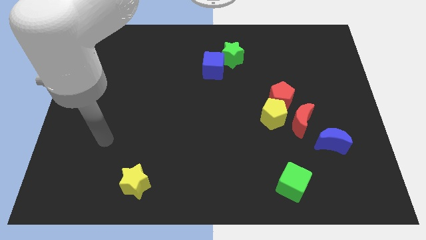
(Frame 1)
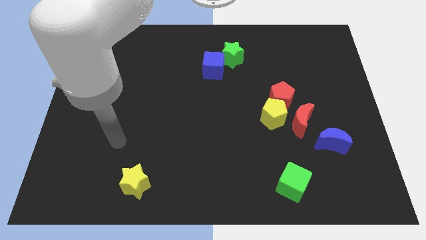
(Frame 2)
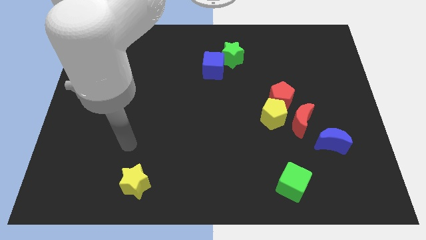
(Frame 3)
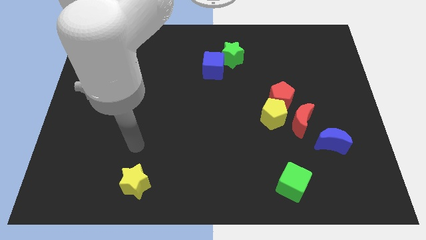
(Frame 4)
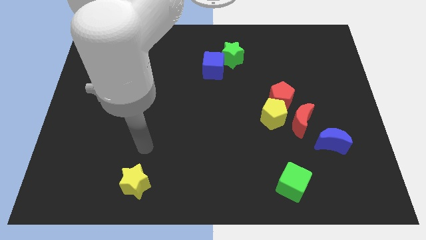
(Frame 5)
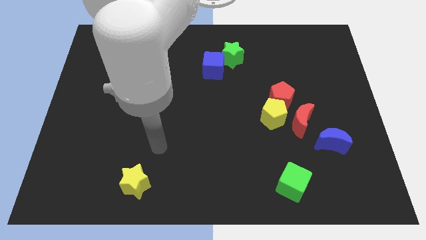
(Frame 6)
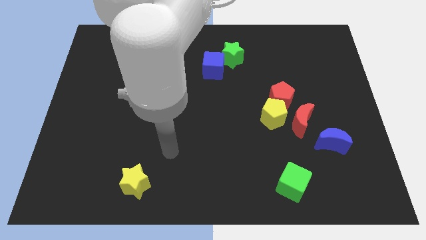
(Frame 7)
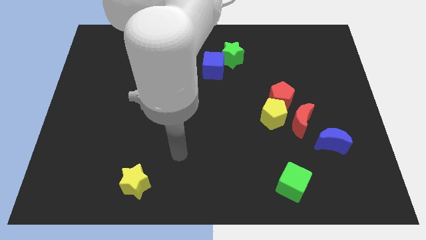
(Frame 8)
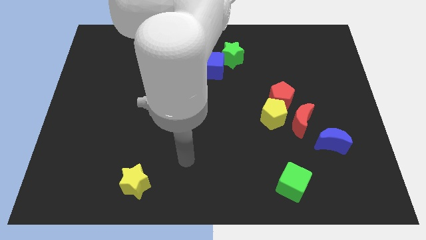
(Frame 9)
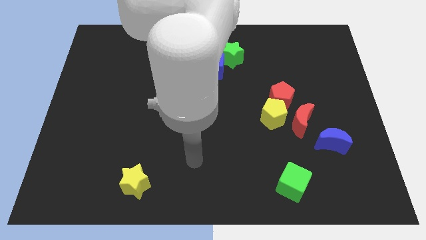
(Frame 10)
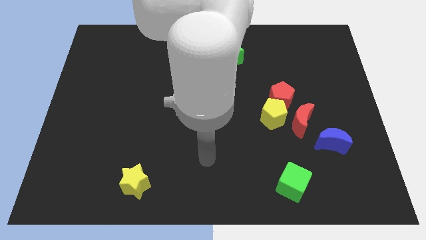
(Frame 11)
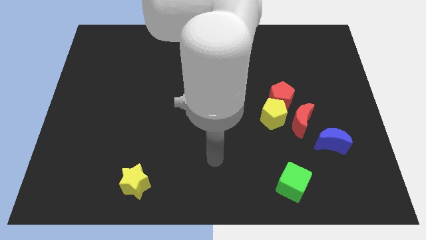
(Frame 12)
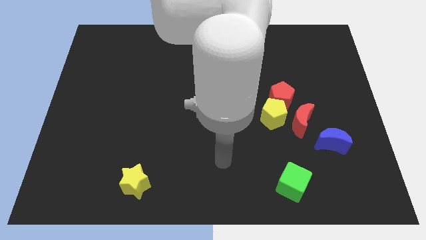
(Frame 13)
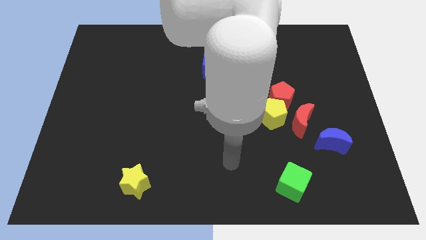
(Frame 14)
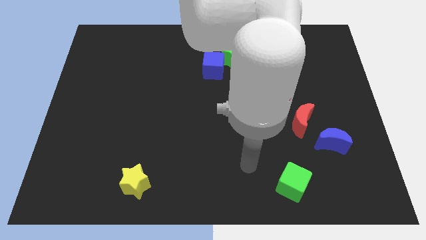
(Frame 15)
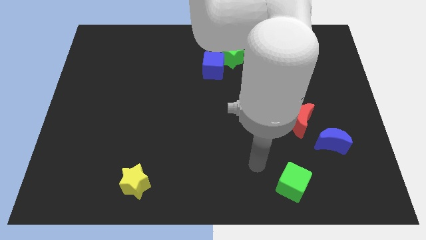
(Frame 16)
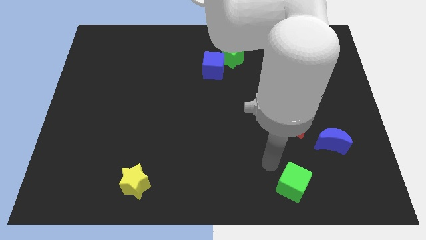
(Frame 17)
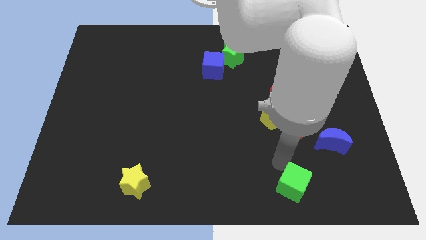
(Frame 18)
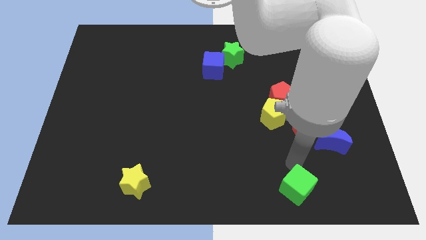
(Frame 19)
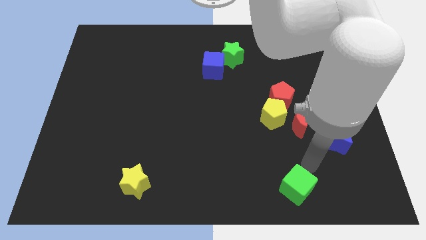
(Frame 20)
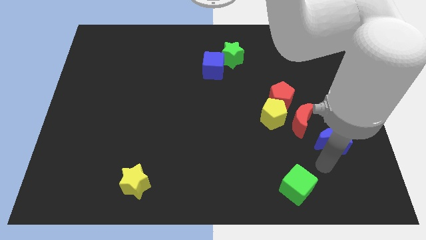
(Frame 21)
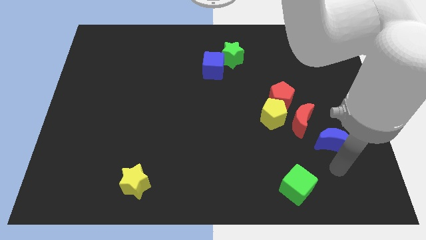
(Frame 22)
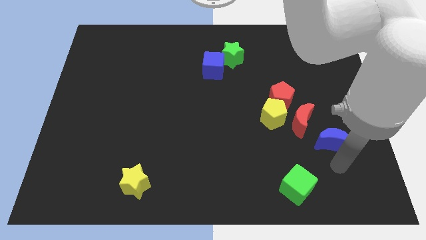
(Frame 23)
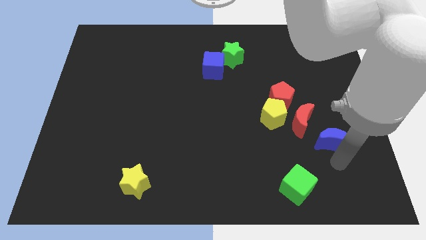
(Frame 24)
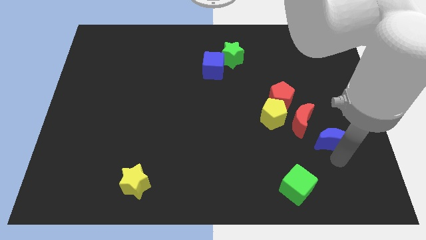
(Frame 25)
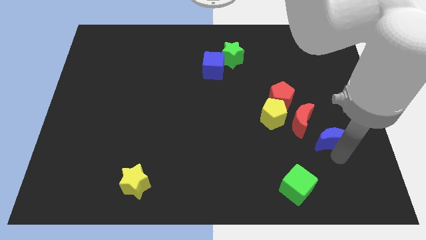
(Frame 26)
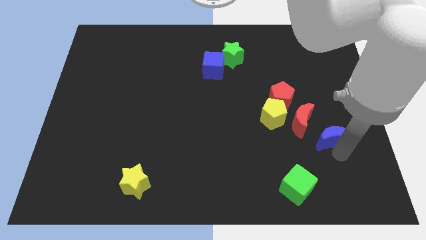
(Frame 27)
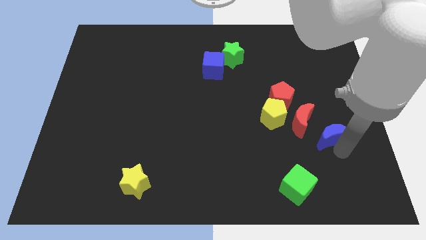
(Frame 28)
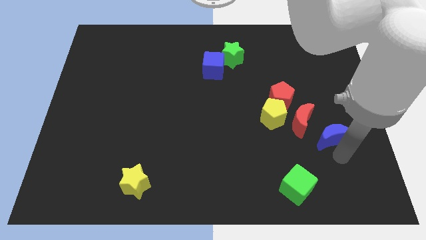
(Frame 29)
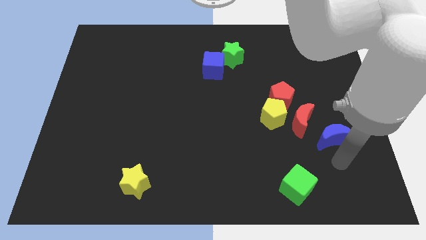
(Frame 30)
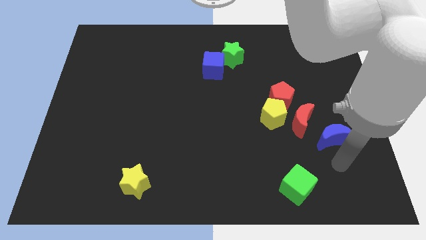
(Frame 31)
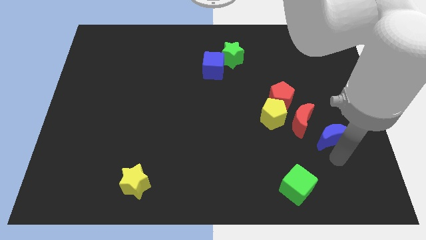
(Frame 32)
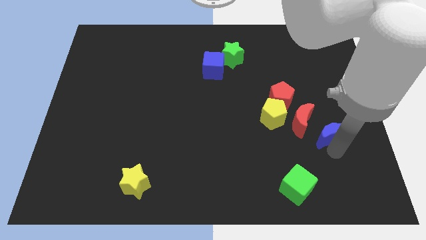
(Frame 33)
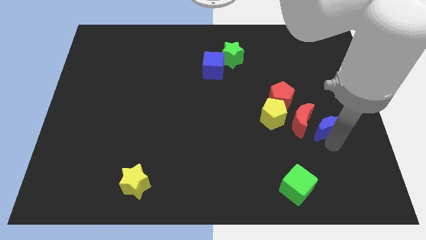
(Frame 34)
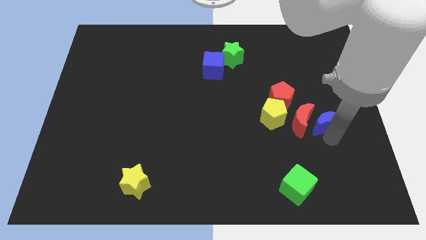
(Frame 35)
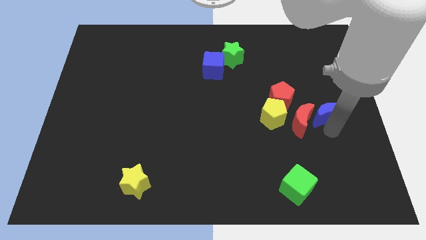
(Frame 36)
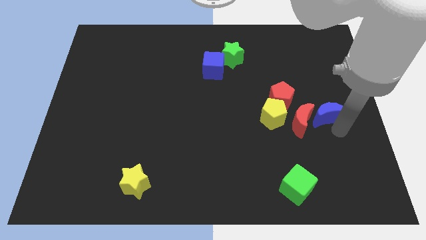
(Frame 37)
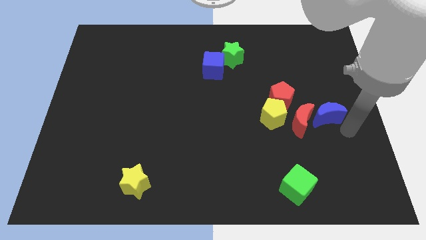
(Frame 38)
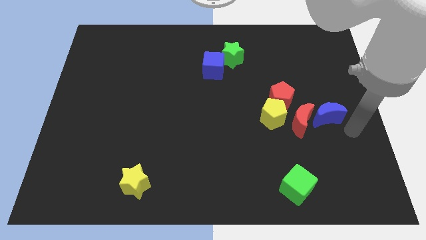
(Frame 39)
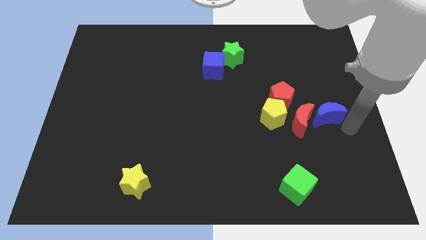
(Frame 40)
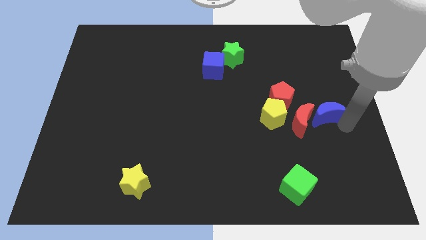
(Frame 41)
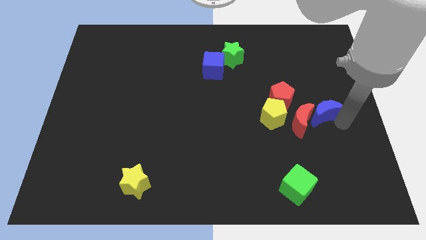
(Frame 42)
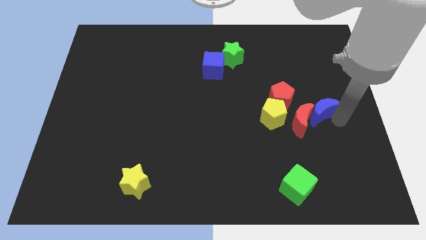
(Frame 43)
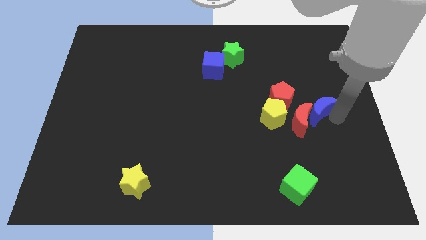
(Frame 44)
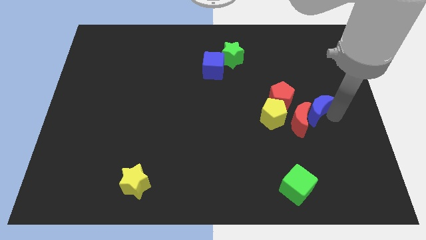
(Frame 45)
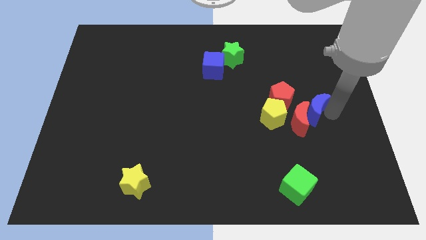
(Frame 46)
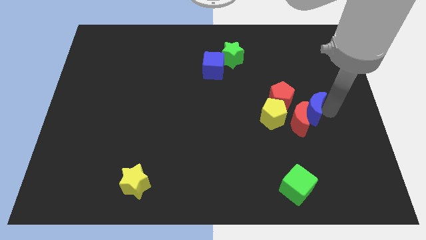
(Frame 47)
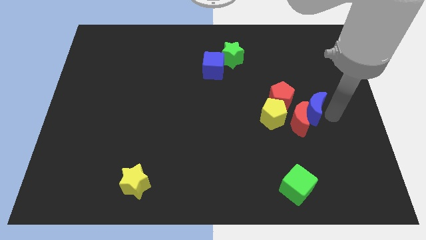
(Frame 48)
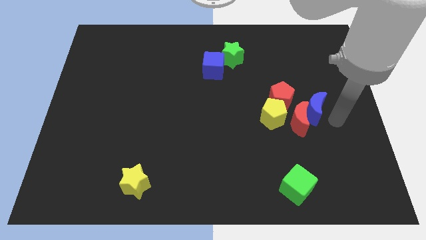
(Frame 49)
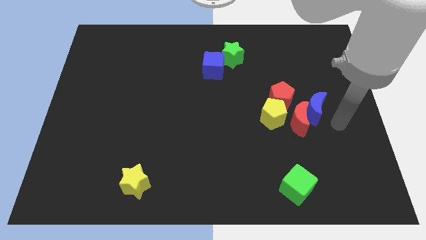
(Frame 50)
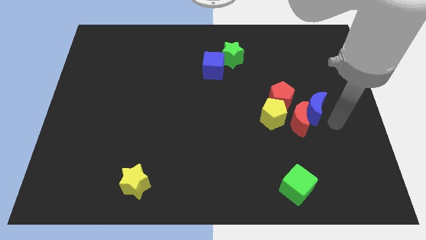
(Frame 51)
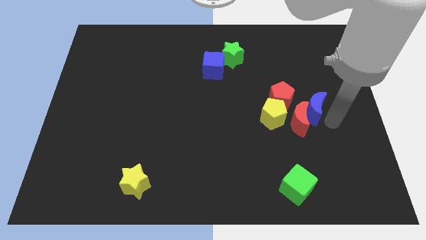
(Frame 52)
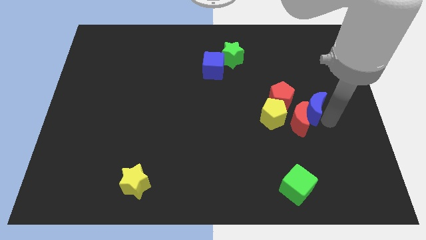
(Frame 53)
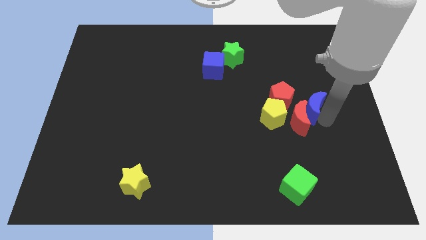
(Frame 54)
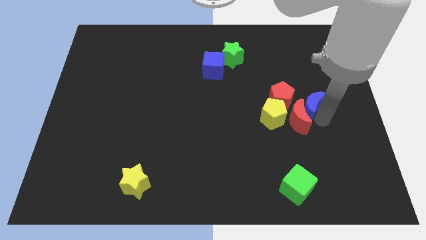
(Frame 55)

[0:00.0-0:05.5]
slide the blue moon to the top right side of the yellow pentagon
